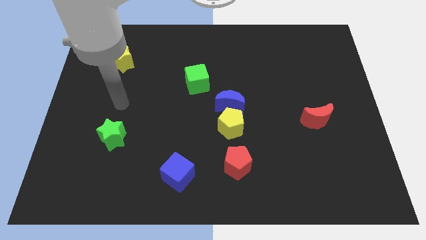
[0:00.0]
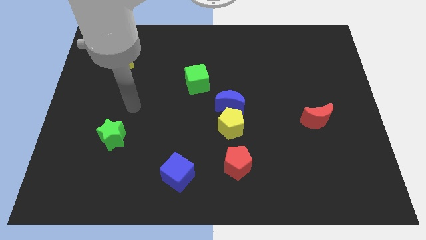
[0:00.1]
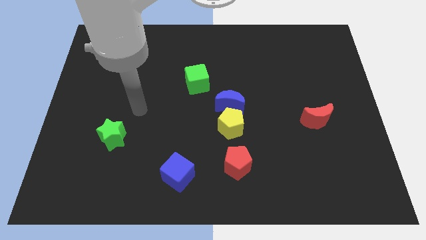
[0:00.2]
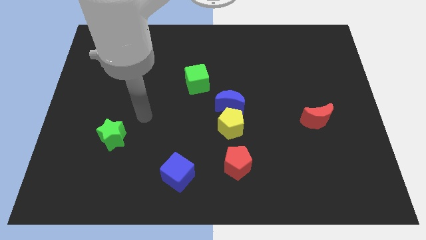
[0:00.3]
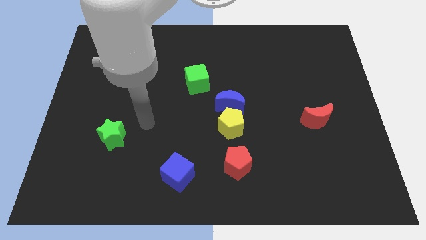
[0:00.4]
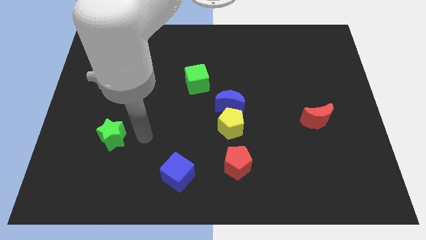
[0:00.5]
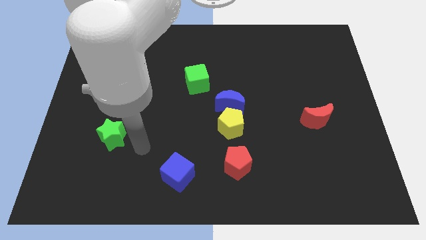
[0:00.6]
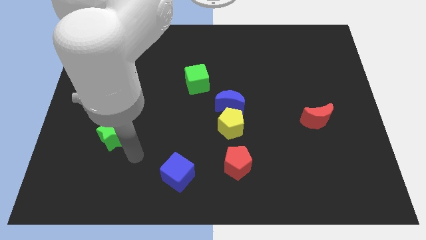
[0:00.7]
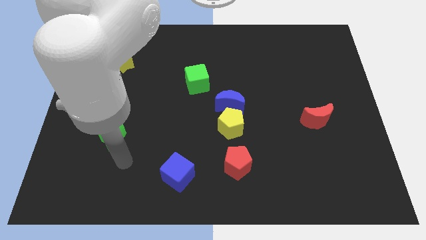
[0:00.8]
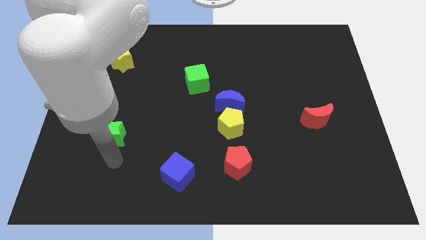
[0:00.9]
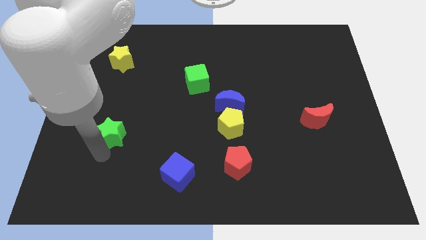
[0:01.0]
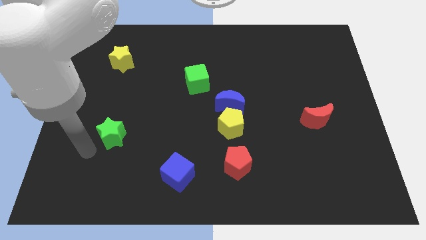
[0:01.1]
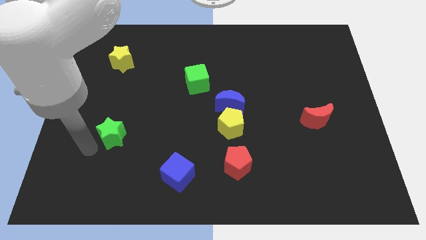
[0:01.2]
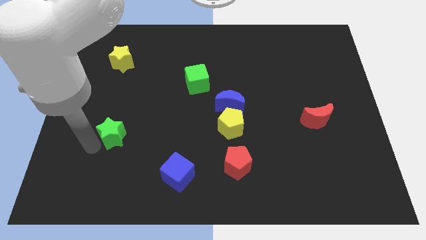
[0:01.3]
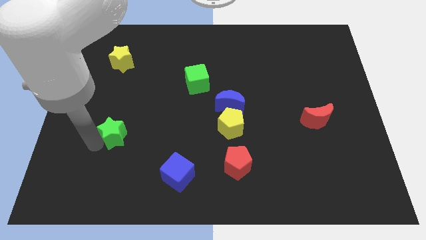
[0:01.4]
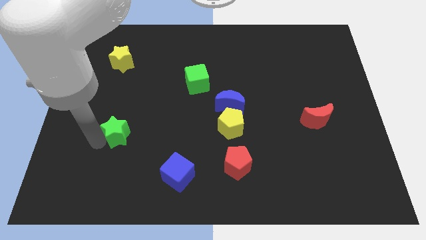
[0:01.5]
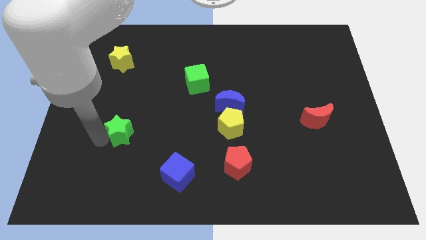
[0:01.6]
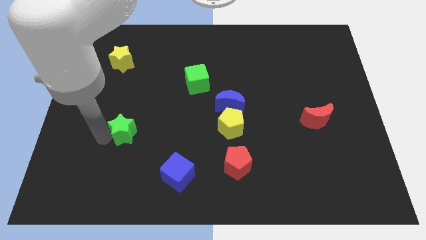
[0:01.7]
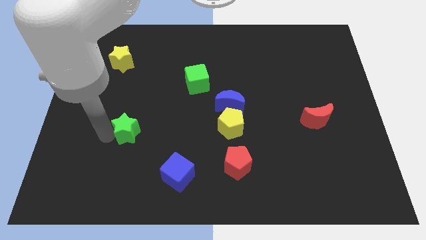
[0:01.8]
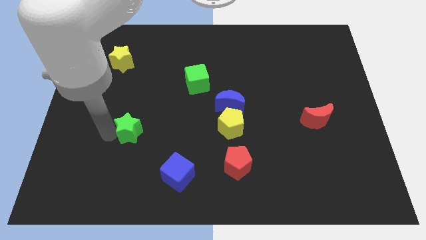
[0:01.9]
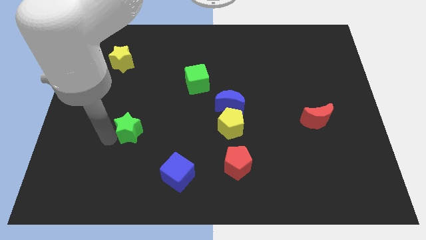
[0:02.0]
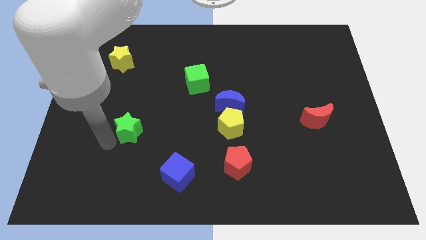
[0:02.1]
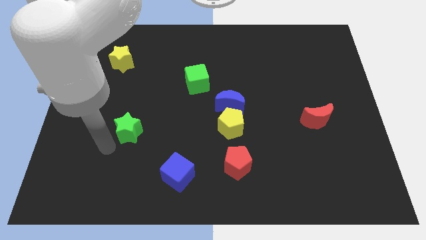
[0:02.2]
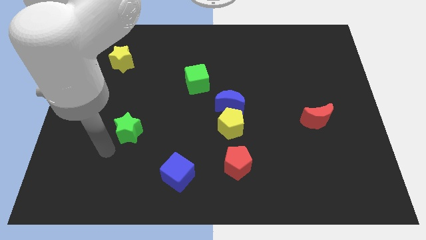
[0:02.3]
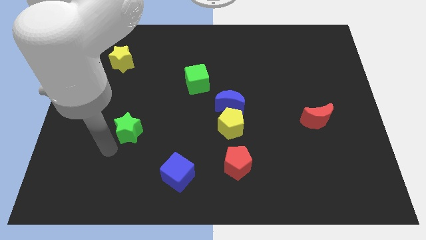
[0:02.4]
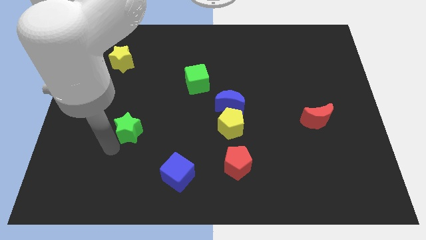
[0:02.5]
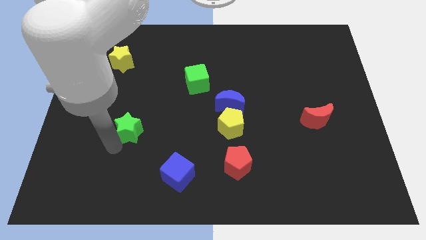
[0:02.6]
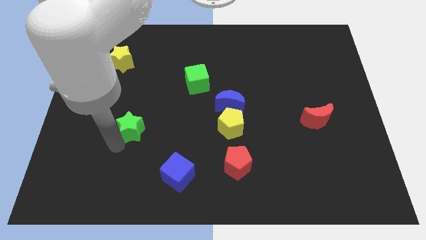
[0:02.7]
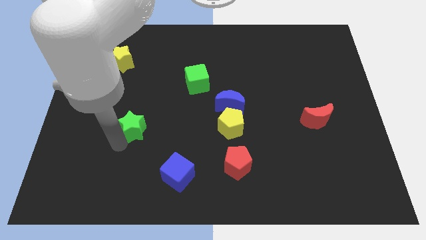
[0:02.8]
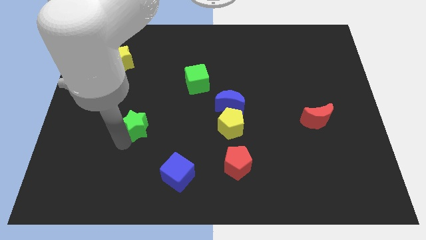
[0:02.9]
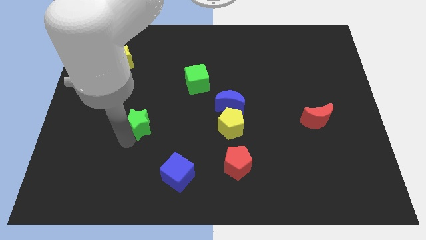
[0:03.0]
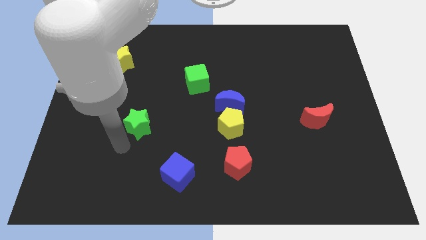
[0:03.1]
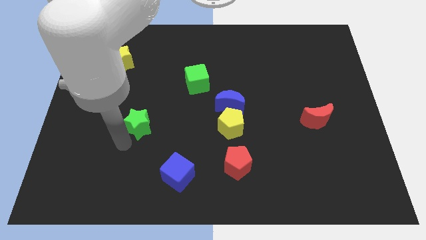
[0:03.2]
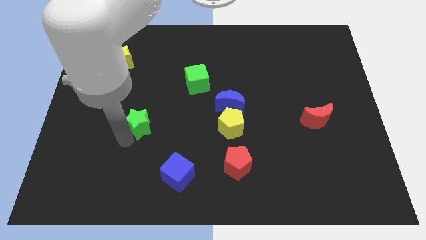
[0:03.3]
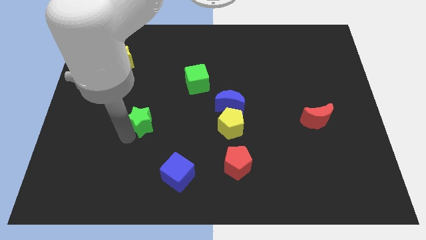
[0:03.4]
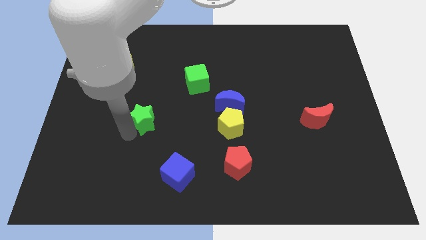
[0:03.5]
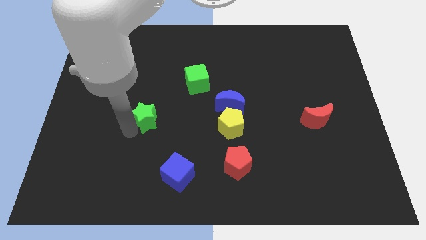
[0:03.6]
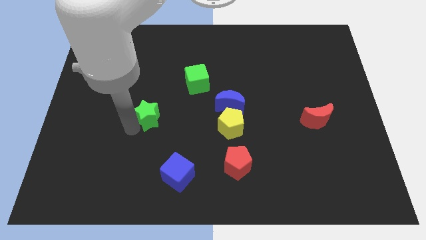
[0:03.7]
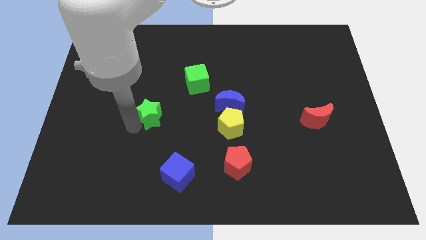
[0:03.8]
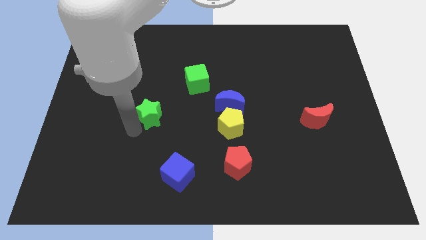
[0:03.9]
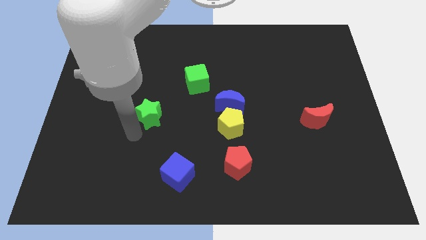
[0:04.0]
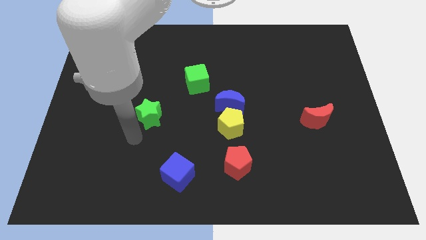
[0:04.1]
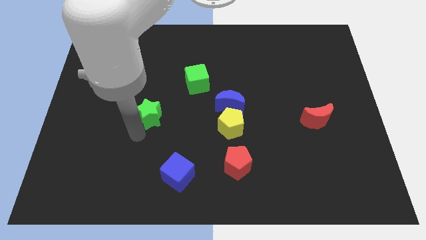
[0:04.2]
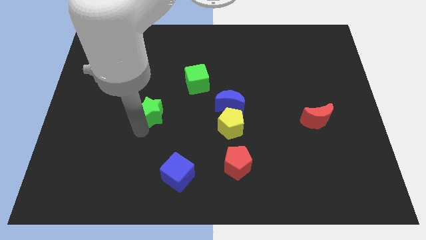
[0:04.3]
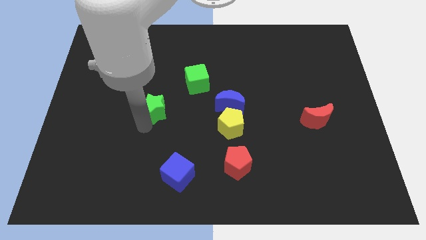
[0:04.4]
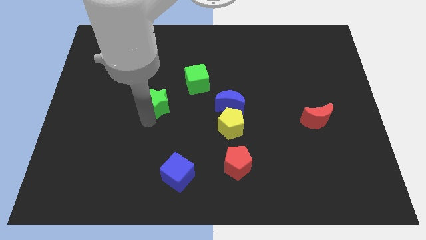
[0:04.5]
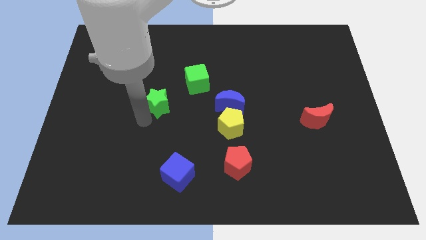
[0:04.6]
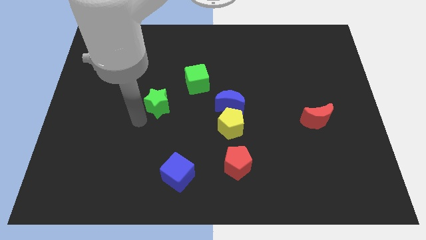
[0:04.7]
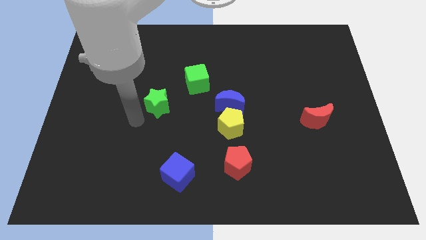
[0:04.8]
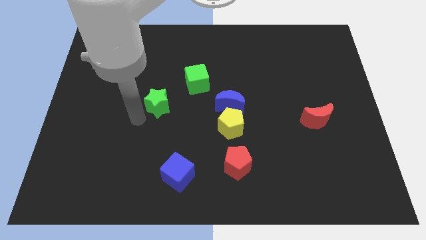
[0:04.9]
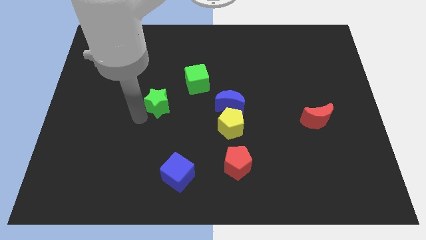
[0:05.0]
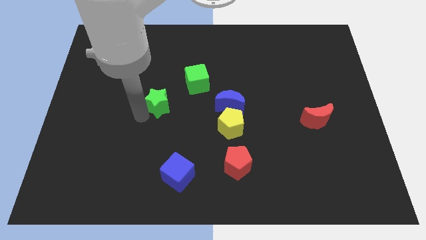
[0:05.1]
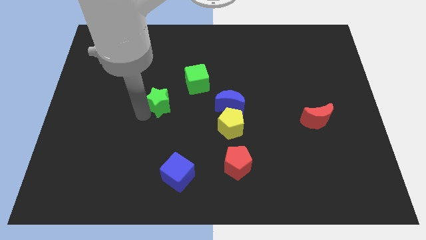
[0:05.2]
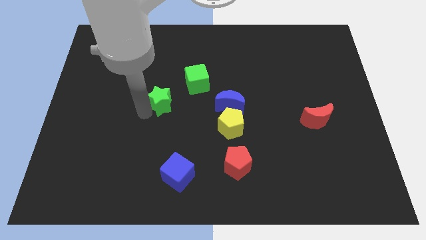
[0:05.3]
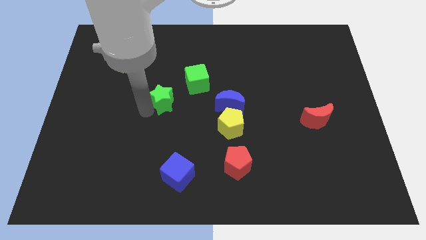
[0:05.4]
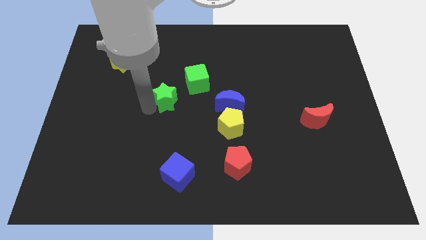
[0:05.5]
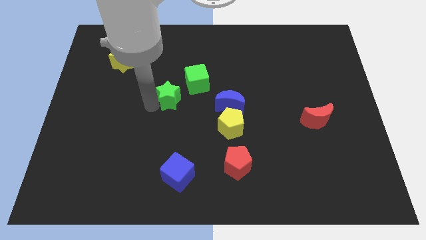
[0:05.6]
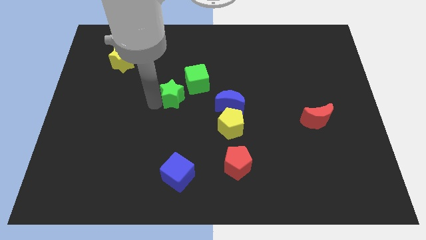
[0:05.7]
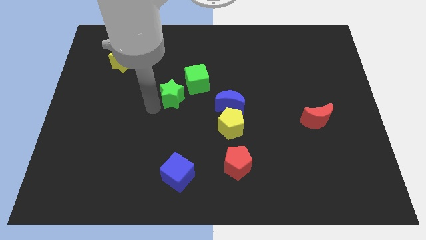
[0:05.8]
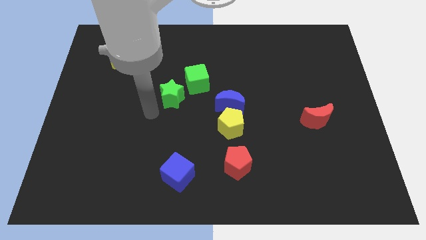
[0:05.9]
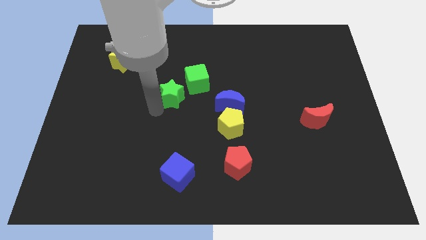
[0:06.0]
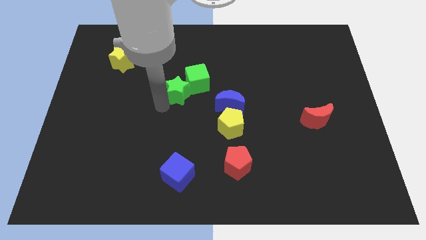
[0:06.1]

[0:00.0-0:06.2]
push the green star to the green cube

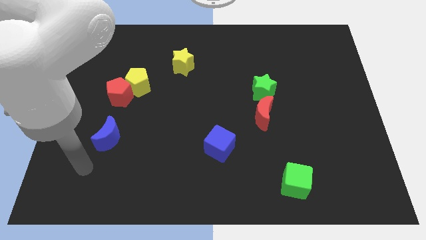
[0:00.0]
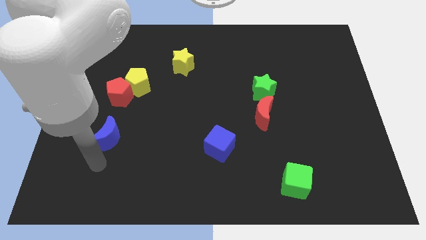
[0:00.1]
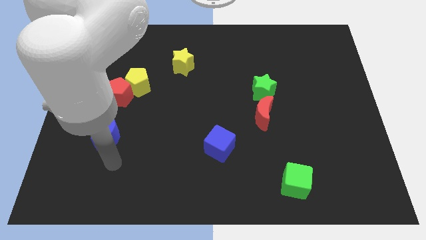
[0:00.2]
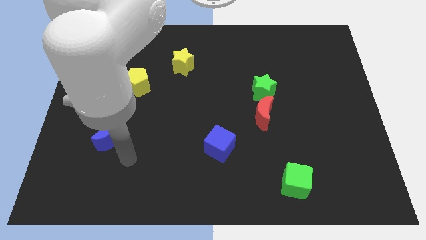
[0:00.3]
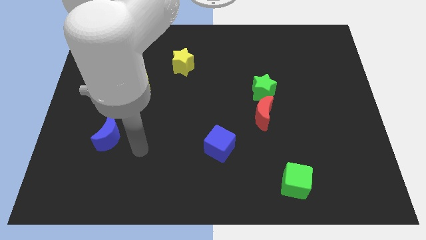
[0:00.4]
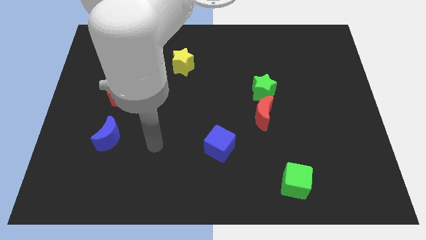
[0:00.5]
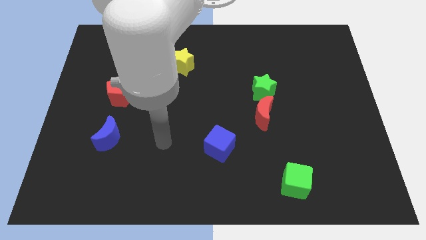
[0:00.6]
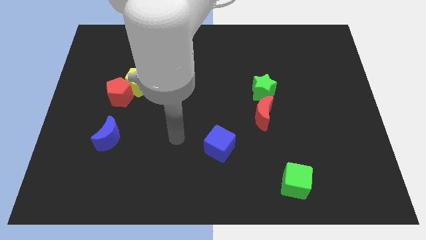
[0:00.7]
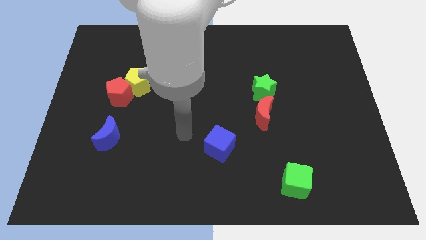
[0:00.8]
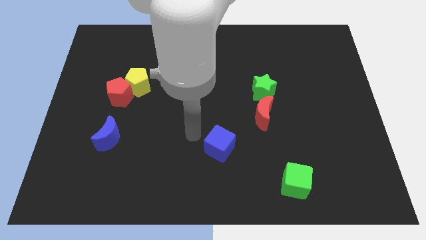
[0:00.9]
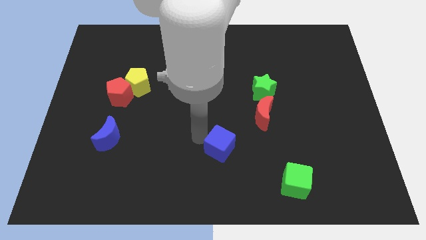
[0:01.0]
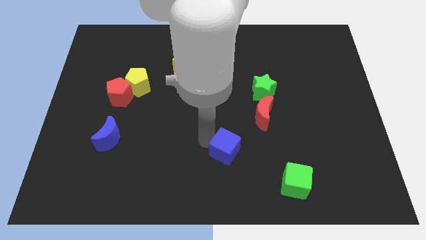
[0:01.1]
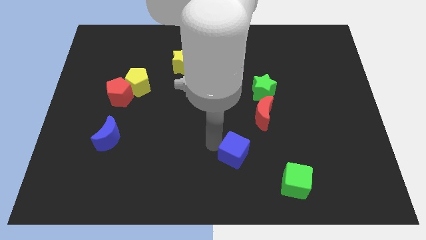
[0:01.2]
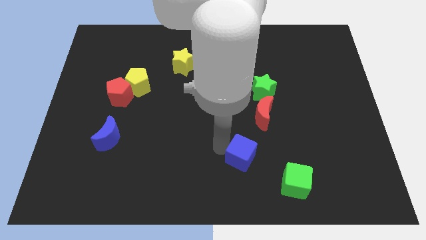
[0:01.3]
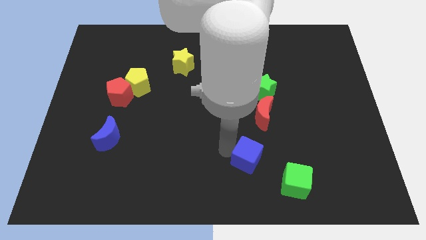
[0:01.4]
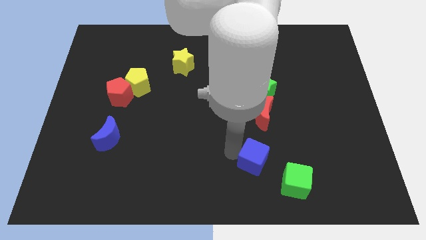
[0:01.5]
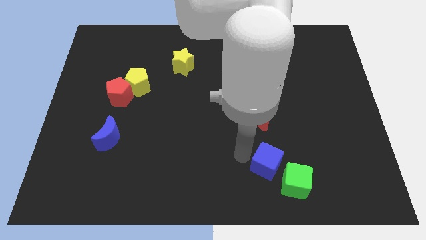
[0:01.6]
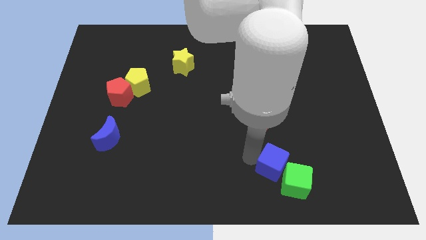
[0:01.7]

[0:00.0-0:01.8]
push the blue cube close to the green cube
